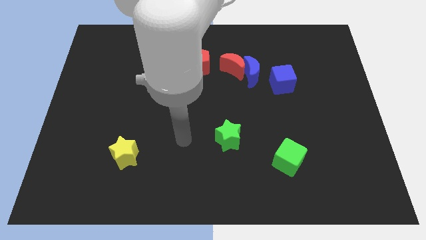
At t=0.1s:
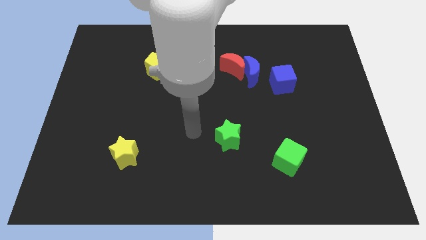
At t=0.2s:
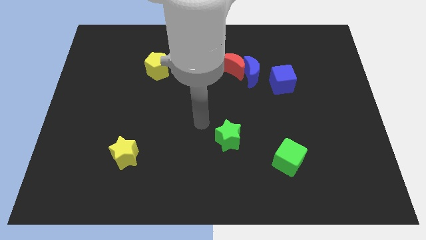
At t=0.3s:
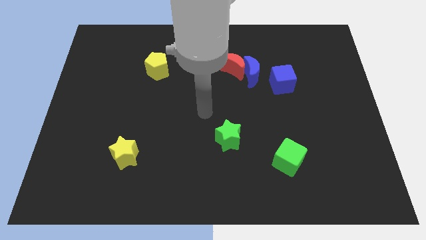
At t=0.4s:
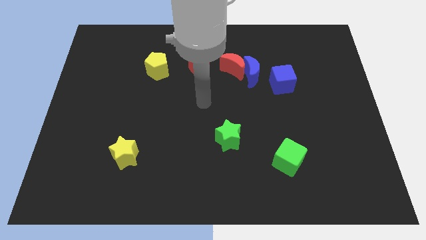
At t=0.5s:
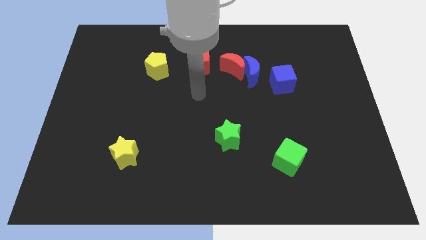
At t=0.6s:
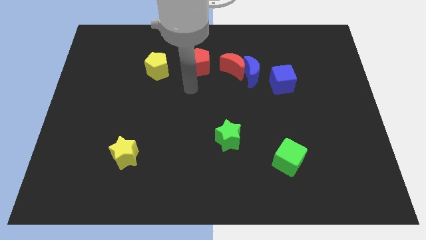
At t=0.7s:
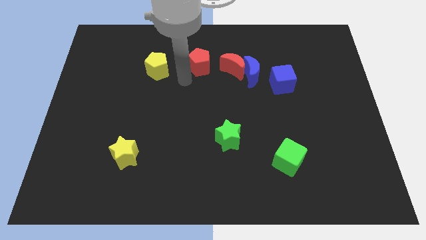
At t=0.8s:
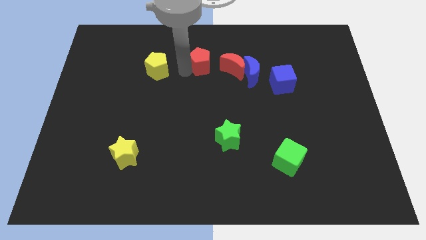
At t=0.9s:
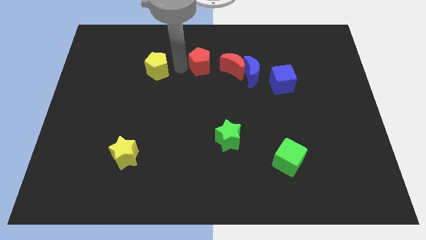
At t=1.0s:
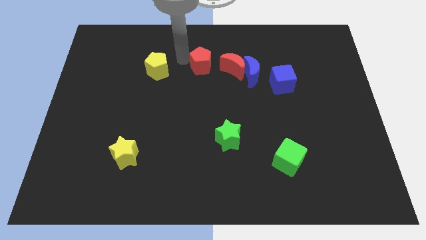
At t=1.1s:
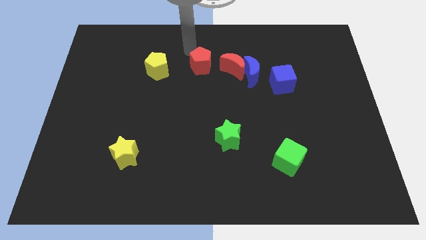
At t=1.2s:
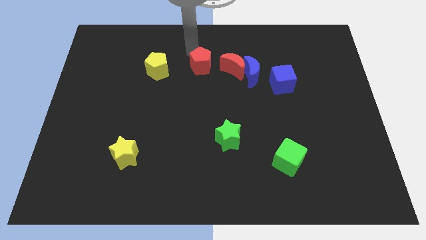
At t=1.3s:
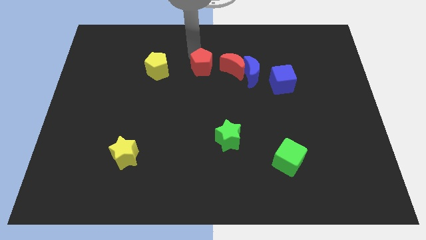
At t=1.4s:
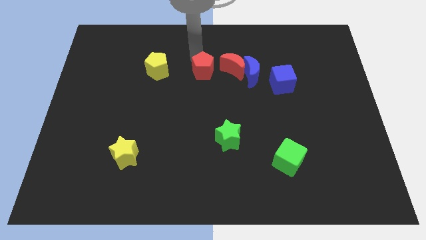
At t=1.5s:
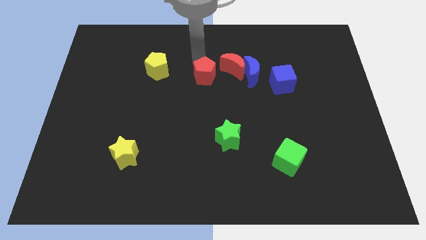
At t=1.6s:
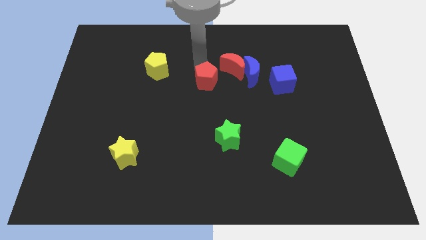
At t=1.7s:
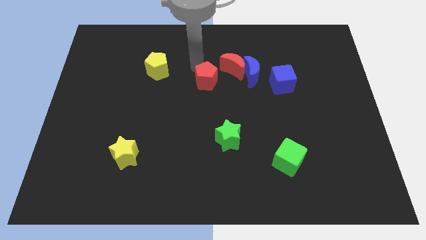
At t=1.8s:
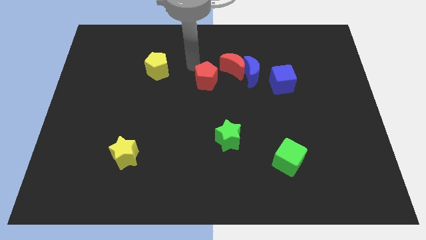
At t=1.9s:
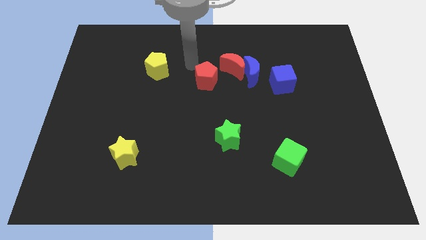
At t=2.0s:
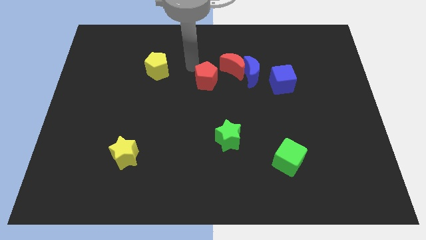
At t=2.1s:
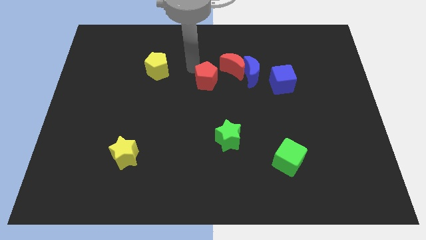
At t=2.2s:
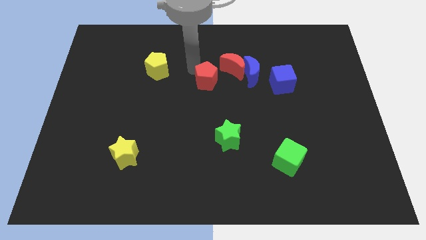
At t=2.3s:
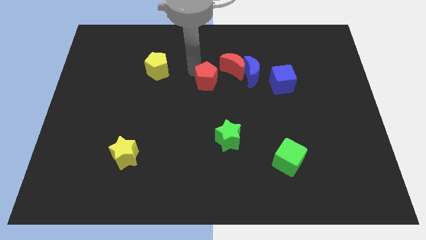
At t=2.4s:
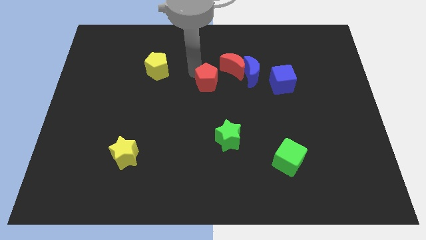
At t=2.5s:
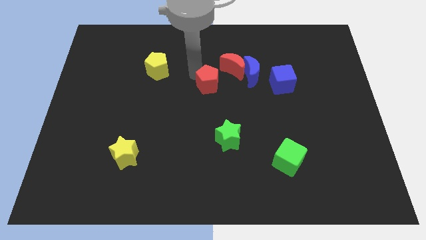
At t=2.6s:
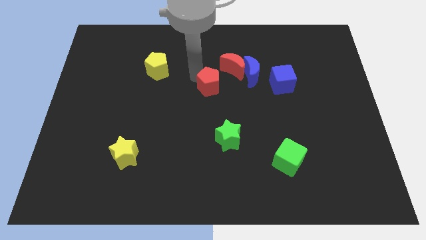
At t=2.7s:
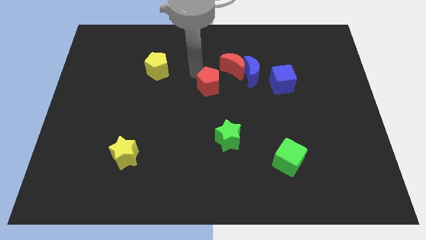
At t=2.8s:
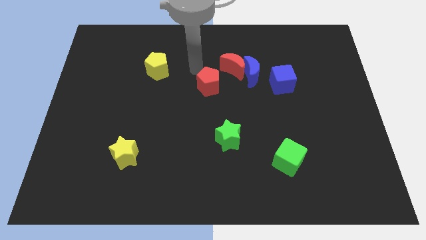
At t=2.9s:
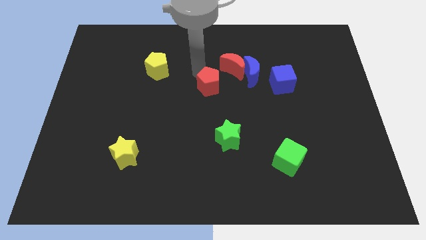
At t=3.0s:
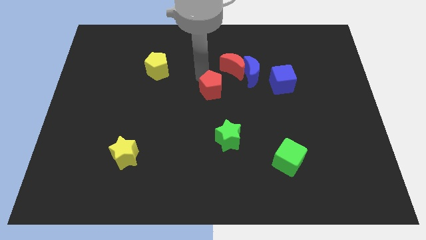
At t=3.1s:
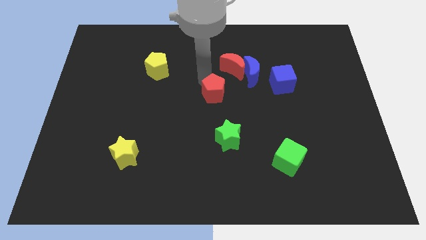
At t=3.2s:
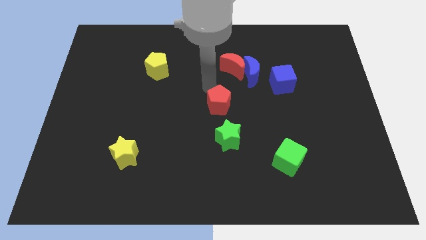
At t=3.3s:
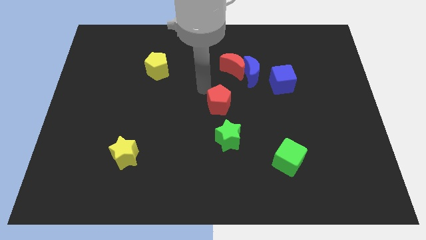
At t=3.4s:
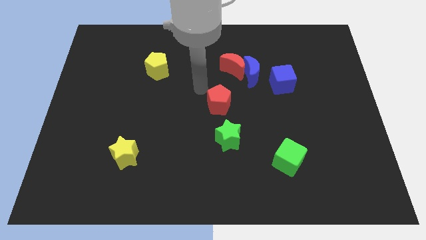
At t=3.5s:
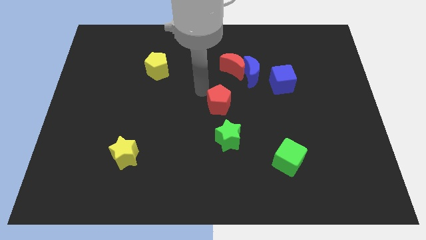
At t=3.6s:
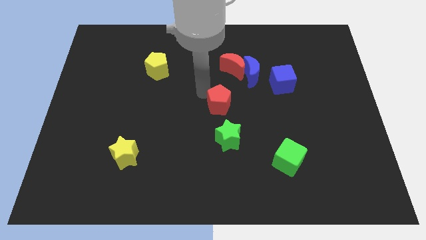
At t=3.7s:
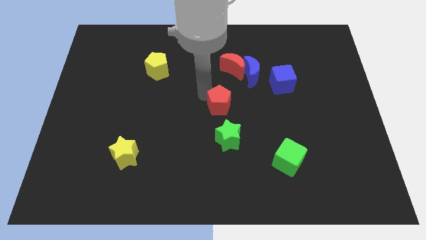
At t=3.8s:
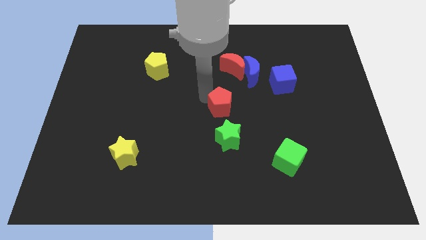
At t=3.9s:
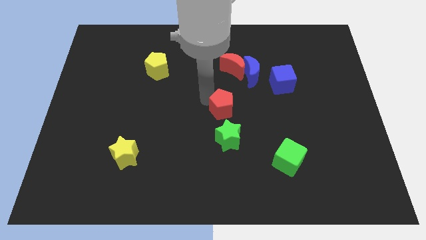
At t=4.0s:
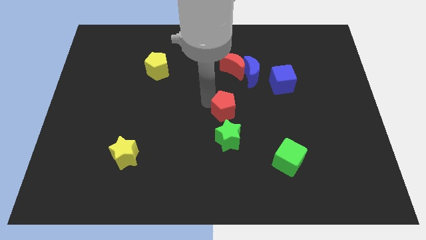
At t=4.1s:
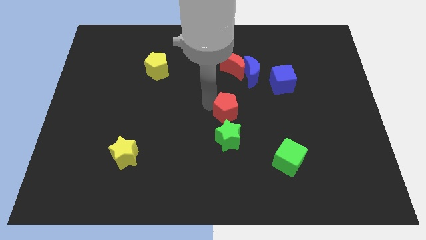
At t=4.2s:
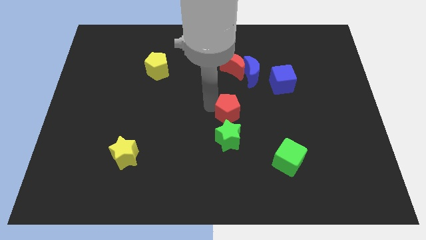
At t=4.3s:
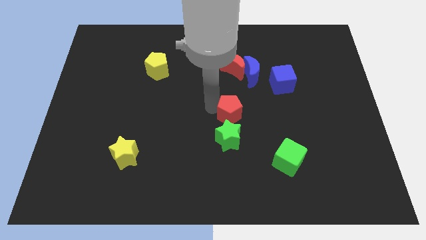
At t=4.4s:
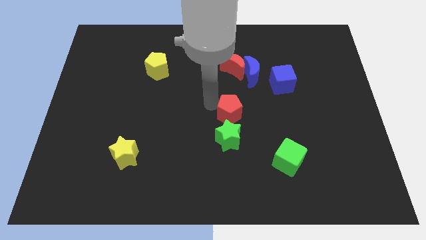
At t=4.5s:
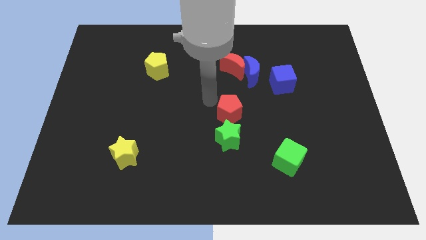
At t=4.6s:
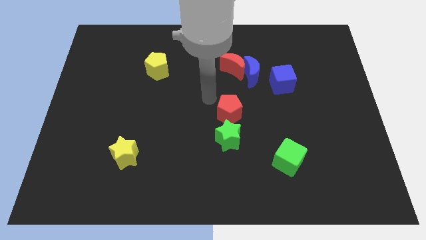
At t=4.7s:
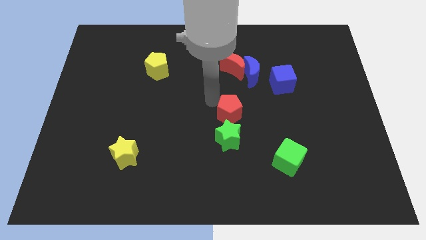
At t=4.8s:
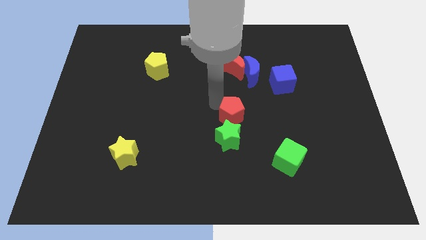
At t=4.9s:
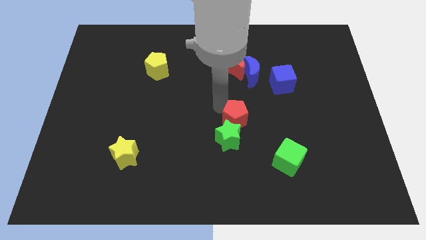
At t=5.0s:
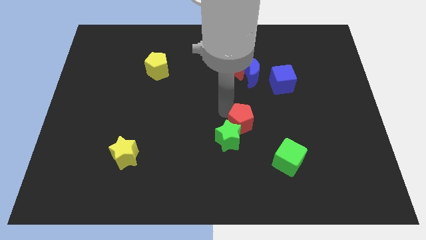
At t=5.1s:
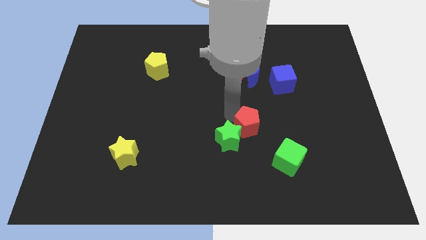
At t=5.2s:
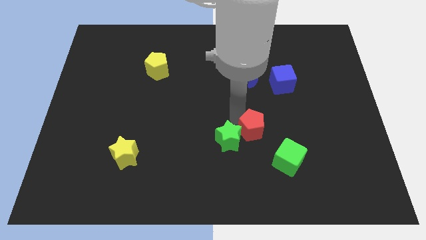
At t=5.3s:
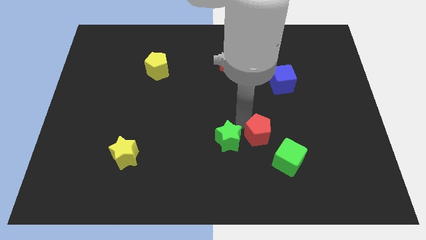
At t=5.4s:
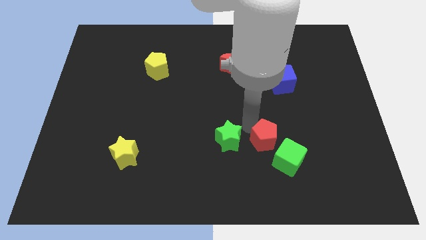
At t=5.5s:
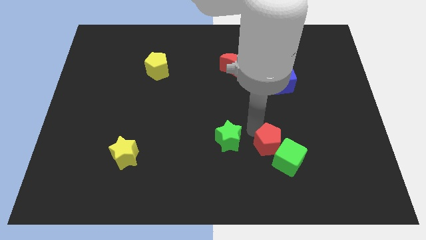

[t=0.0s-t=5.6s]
put the red pentagon next to the green cube

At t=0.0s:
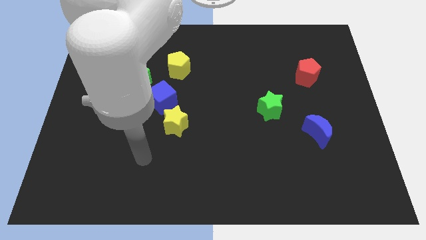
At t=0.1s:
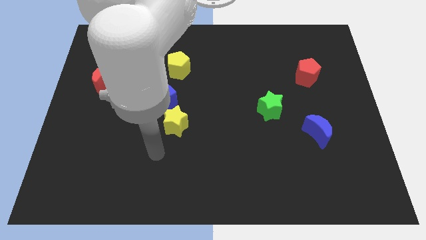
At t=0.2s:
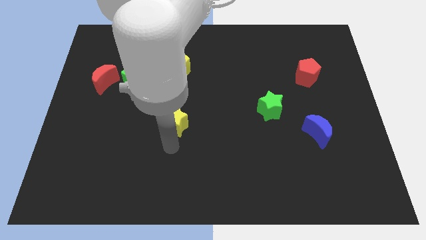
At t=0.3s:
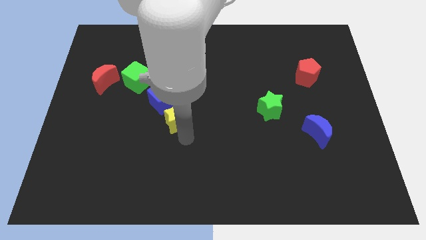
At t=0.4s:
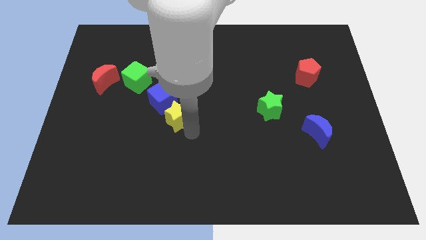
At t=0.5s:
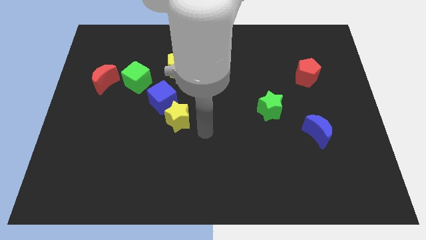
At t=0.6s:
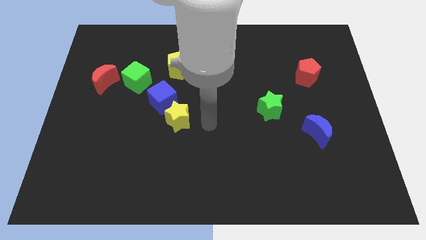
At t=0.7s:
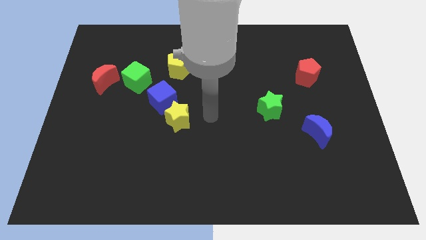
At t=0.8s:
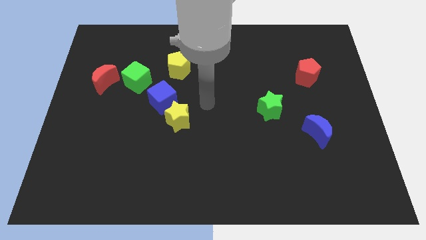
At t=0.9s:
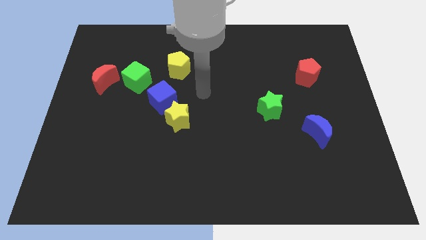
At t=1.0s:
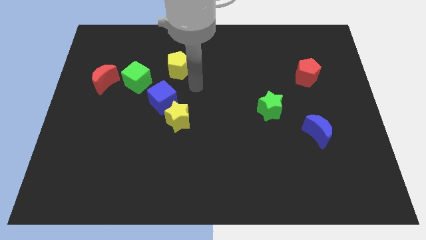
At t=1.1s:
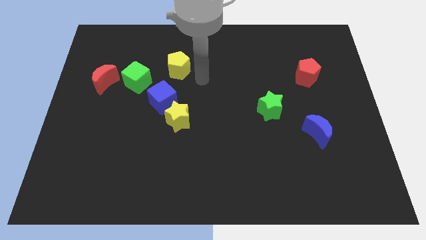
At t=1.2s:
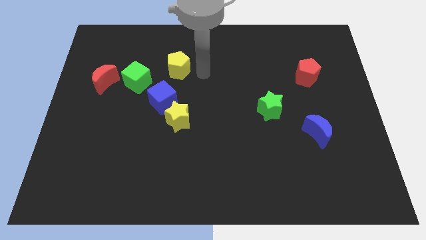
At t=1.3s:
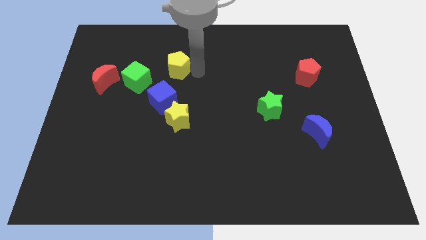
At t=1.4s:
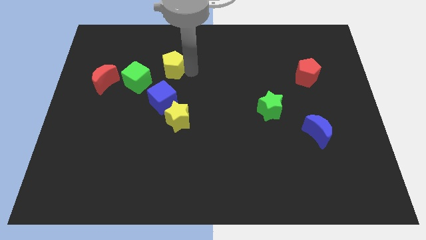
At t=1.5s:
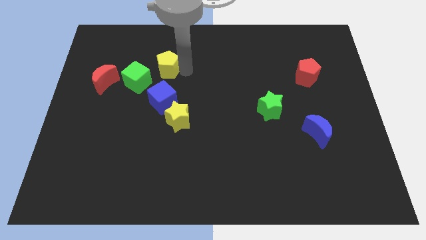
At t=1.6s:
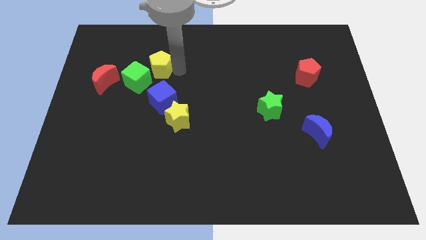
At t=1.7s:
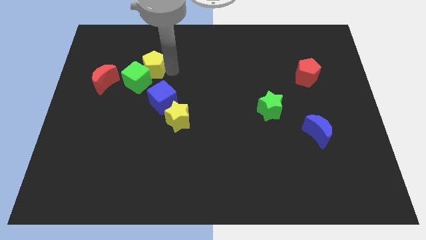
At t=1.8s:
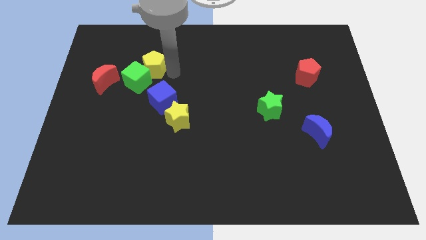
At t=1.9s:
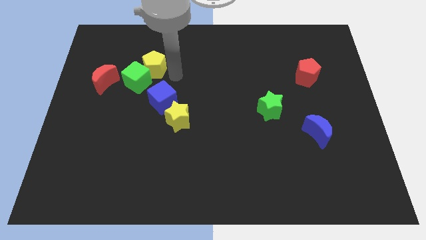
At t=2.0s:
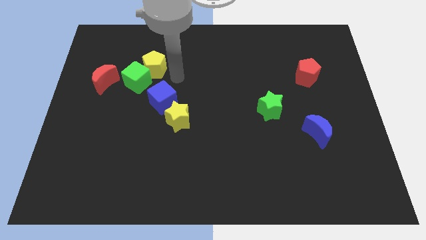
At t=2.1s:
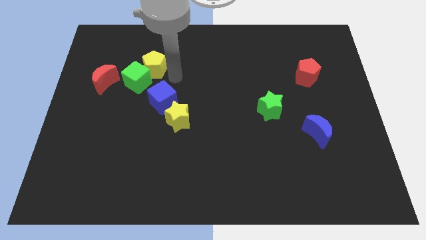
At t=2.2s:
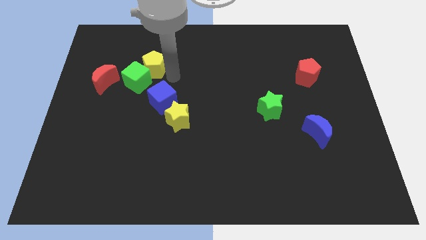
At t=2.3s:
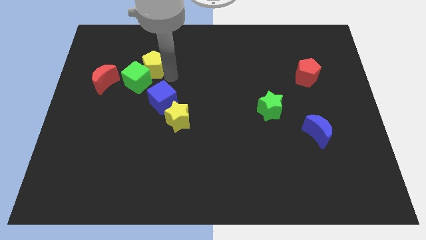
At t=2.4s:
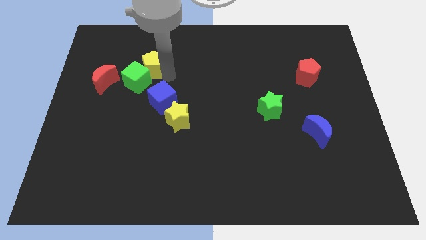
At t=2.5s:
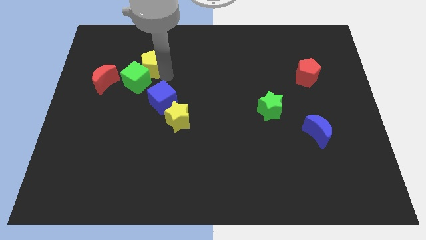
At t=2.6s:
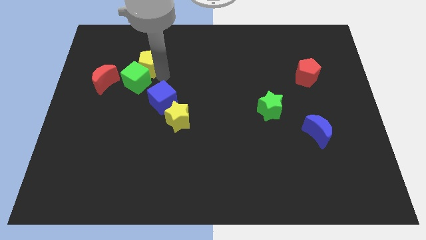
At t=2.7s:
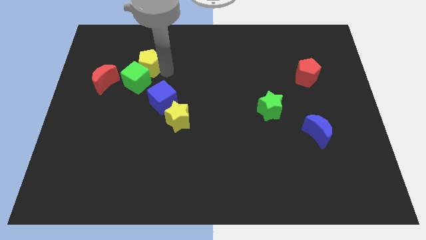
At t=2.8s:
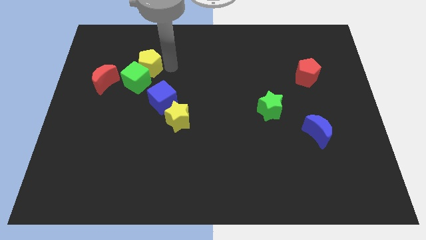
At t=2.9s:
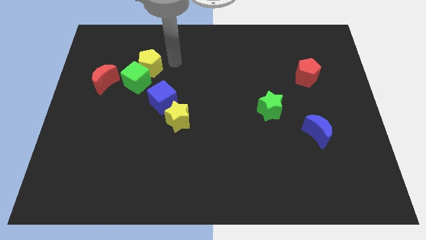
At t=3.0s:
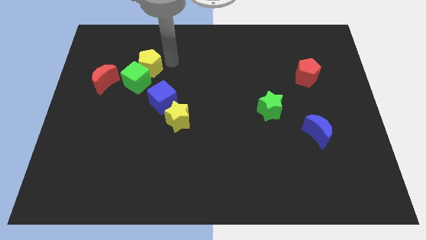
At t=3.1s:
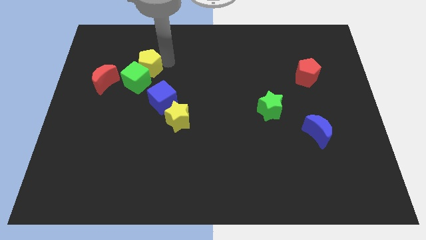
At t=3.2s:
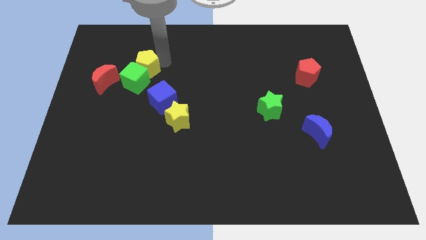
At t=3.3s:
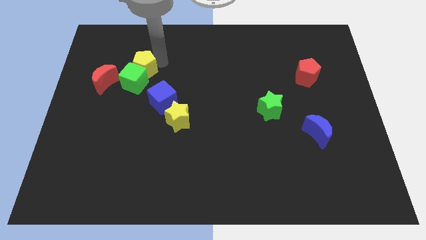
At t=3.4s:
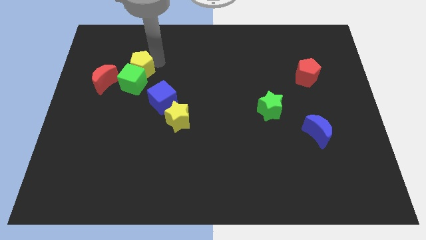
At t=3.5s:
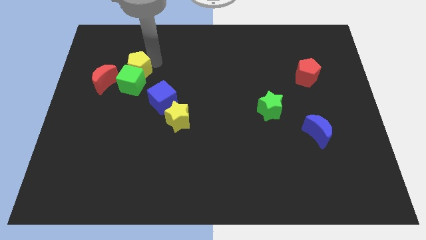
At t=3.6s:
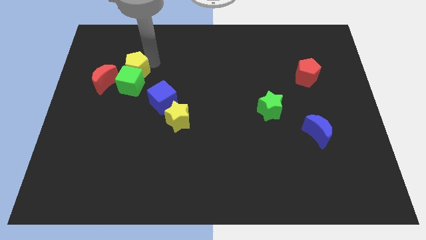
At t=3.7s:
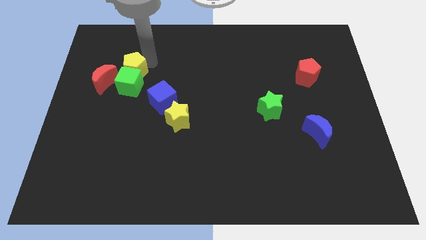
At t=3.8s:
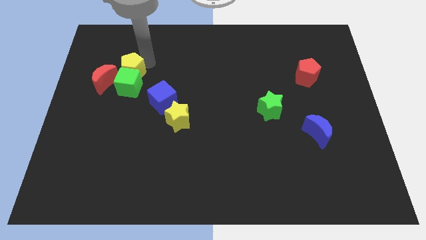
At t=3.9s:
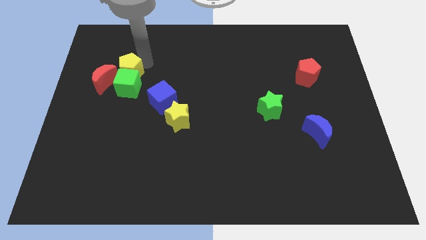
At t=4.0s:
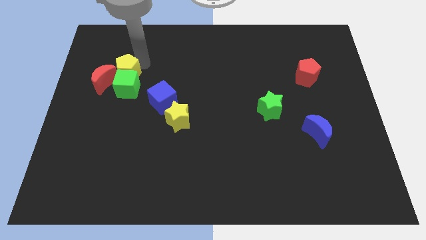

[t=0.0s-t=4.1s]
put the yellow pentagon towards the red moon
